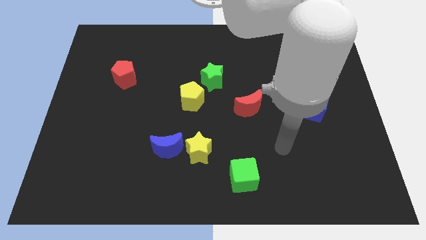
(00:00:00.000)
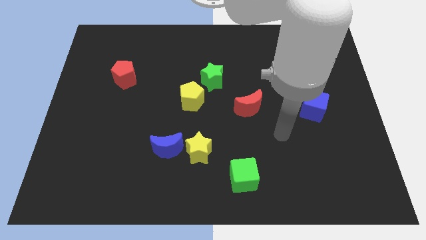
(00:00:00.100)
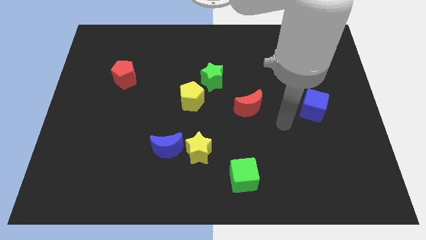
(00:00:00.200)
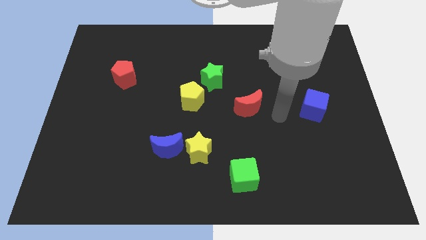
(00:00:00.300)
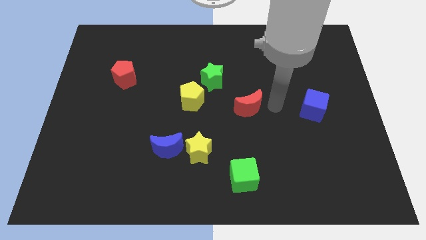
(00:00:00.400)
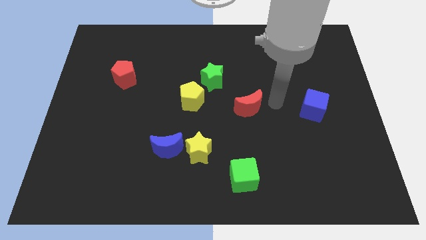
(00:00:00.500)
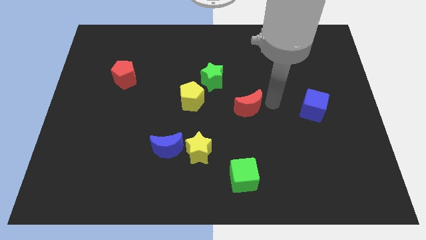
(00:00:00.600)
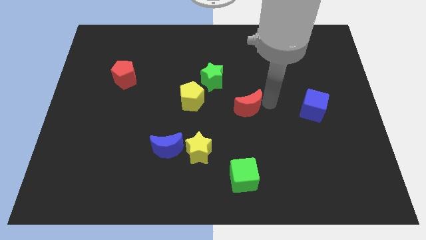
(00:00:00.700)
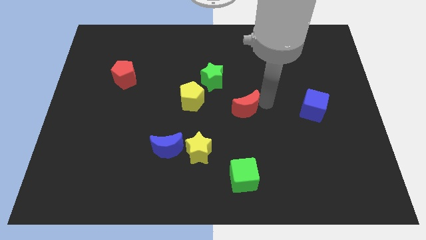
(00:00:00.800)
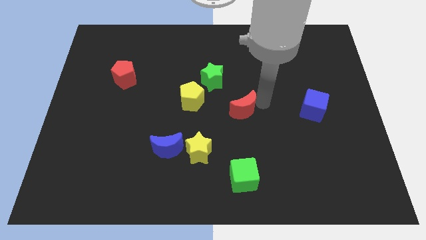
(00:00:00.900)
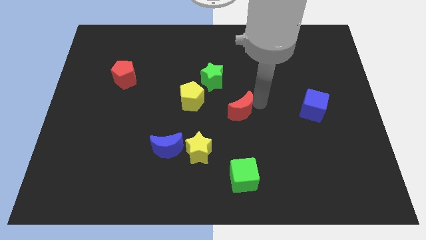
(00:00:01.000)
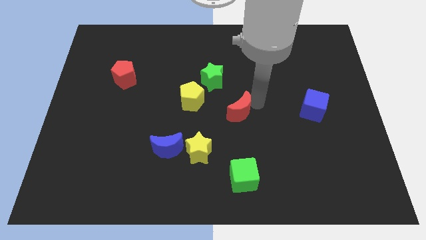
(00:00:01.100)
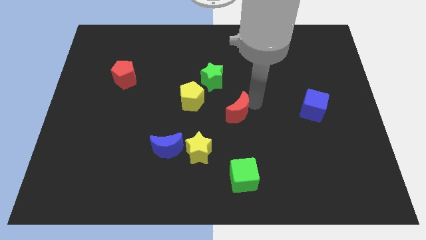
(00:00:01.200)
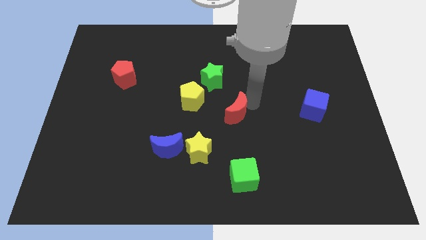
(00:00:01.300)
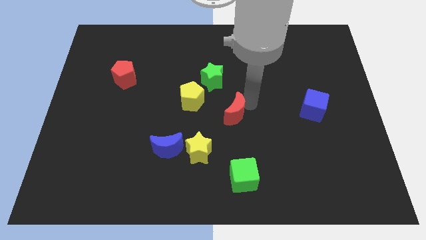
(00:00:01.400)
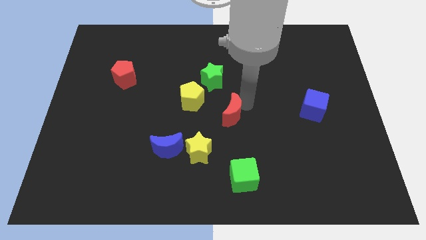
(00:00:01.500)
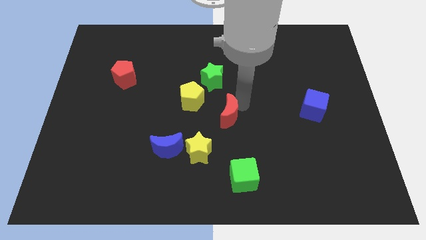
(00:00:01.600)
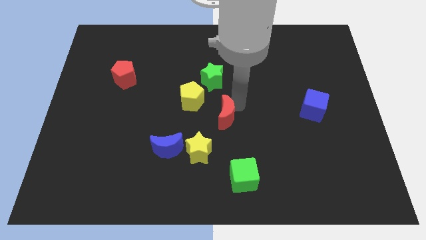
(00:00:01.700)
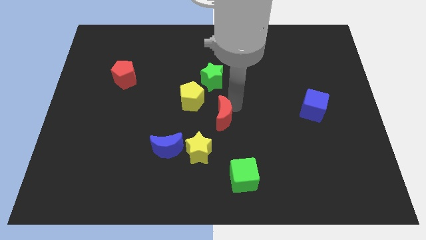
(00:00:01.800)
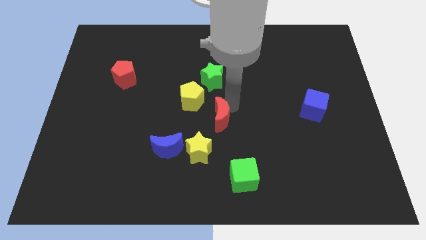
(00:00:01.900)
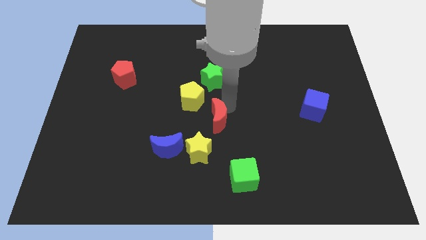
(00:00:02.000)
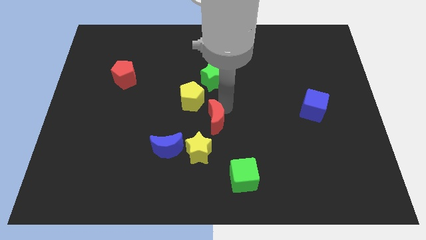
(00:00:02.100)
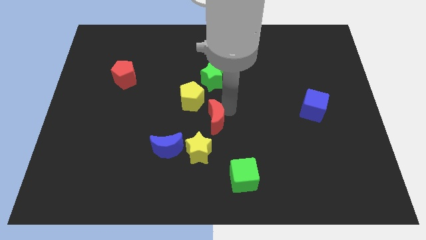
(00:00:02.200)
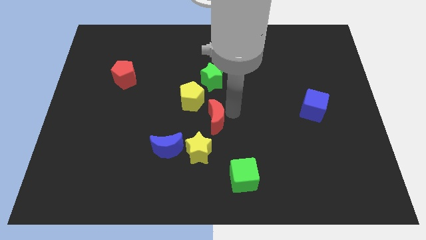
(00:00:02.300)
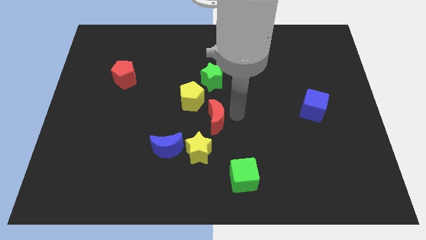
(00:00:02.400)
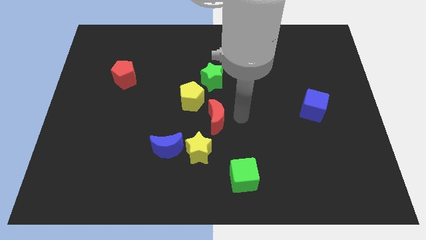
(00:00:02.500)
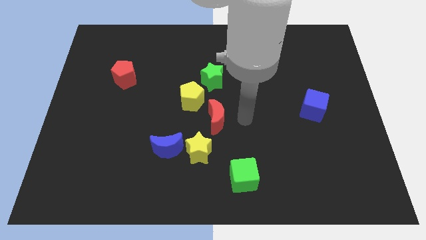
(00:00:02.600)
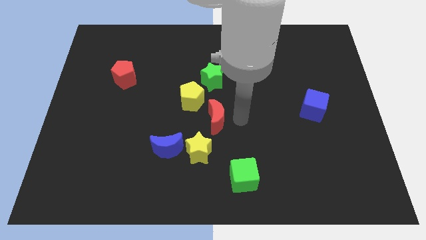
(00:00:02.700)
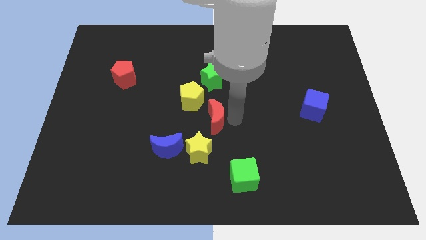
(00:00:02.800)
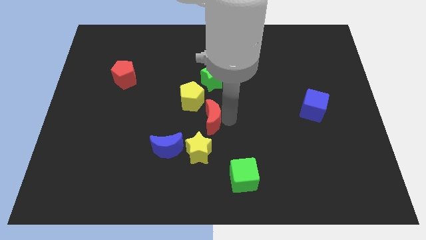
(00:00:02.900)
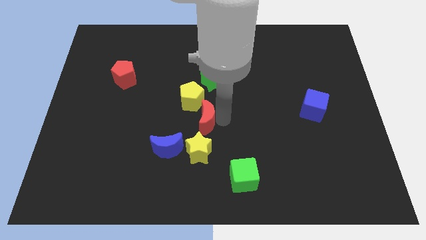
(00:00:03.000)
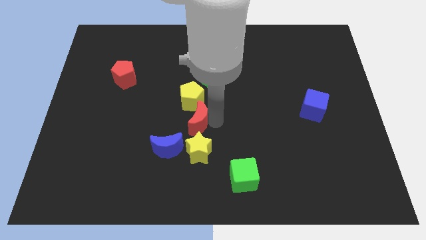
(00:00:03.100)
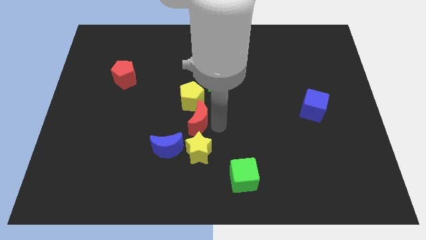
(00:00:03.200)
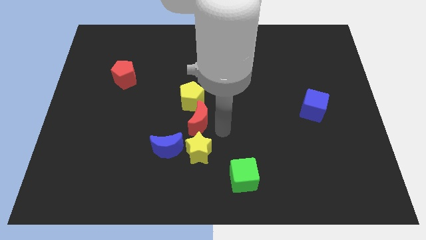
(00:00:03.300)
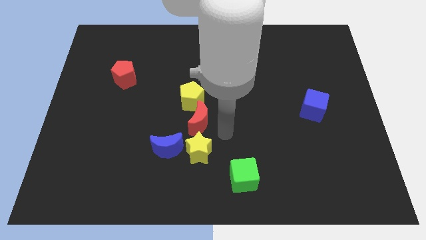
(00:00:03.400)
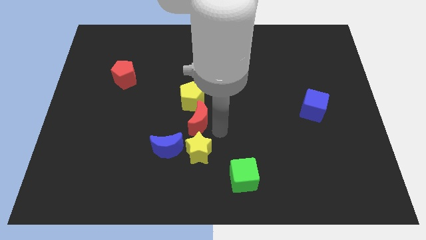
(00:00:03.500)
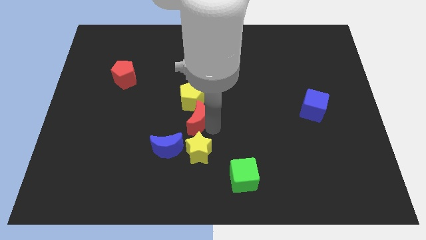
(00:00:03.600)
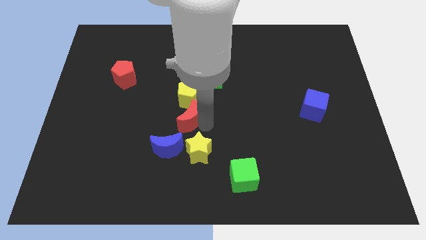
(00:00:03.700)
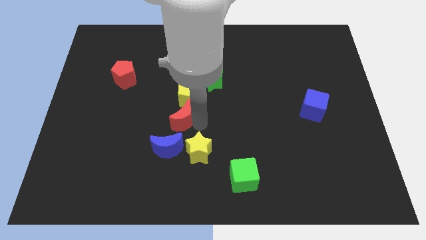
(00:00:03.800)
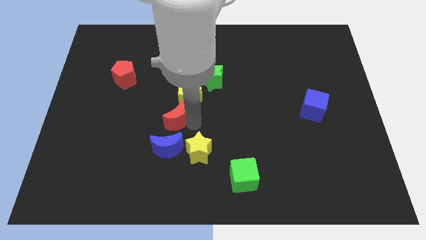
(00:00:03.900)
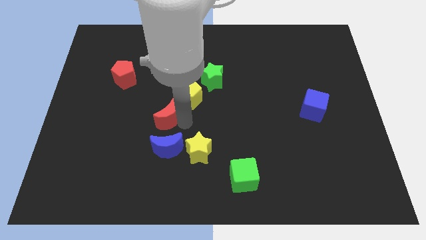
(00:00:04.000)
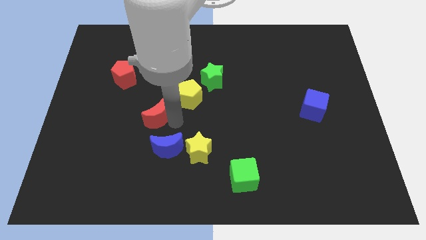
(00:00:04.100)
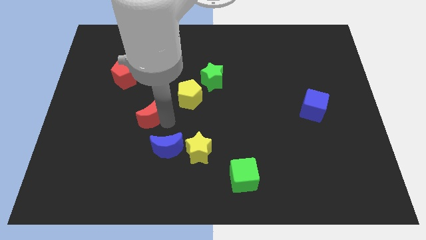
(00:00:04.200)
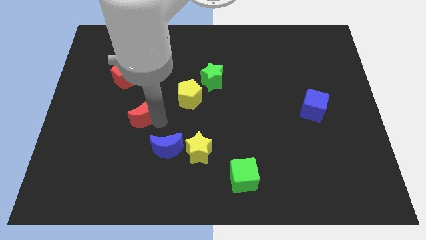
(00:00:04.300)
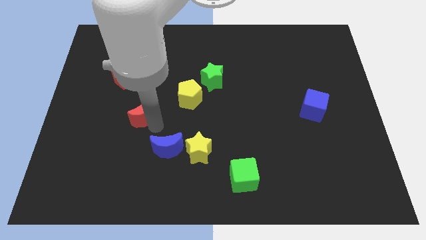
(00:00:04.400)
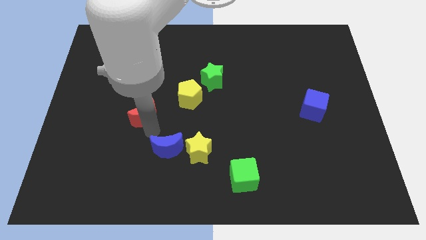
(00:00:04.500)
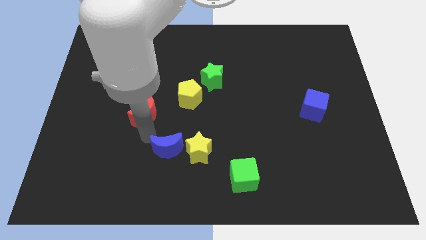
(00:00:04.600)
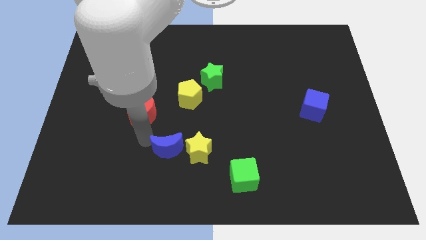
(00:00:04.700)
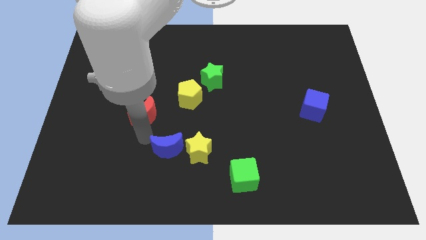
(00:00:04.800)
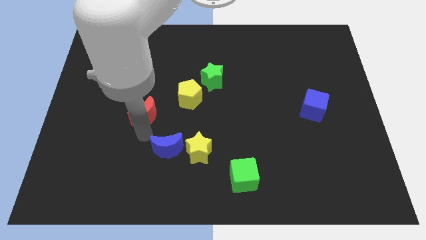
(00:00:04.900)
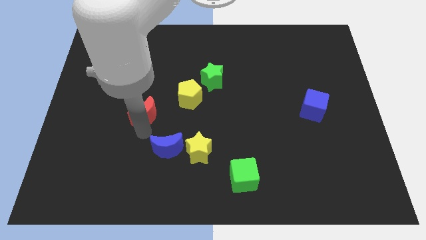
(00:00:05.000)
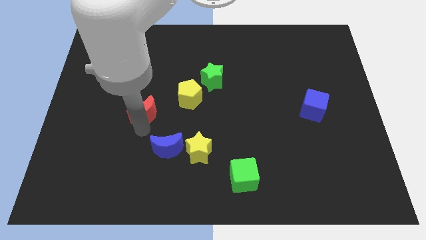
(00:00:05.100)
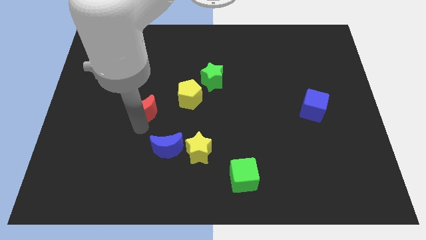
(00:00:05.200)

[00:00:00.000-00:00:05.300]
slide the red moon just left of the yellow pentagon

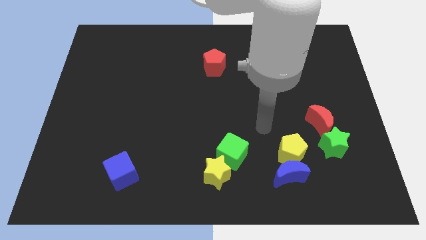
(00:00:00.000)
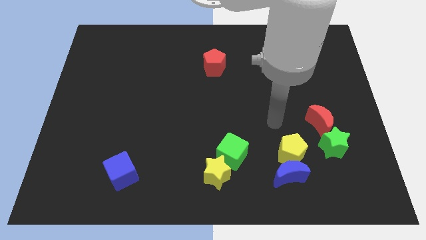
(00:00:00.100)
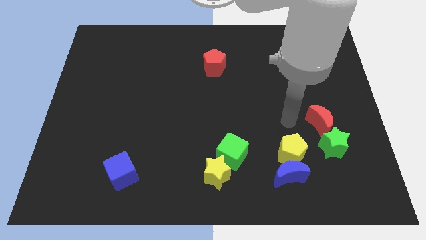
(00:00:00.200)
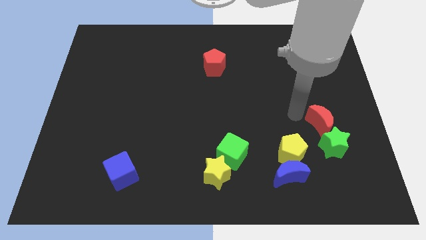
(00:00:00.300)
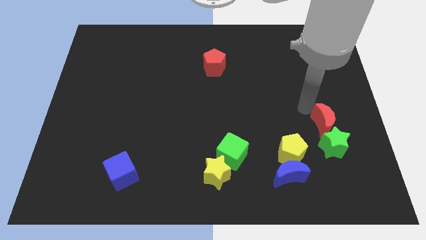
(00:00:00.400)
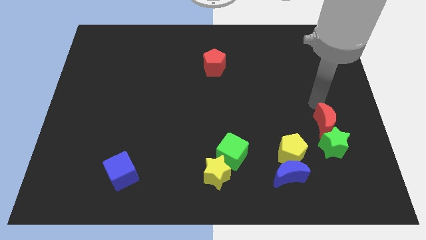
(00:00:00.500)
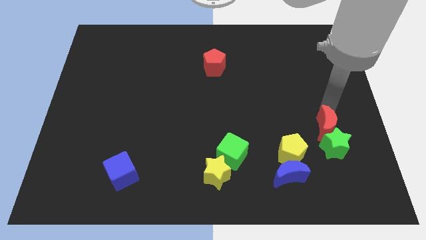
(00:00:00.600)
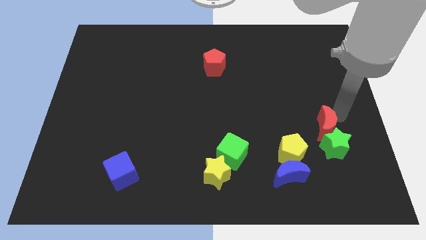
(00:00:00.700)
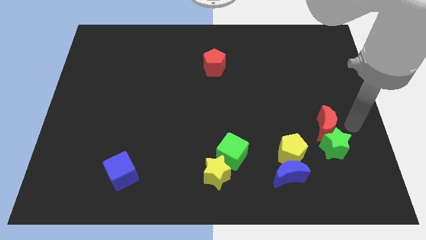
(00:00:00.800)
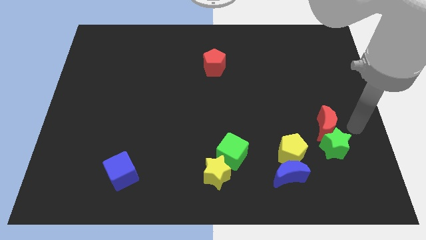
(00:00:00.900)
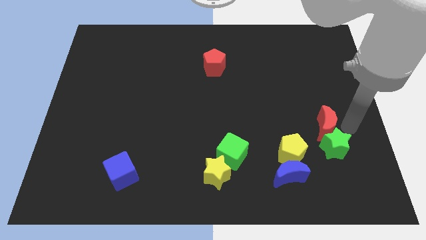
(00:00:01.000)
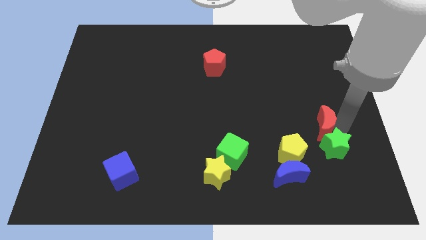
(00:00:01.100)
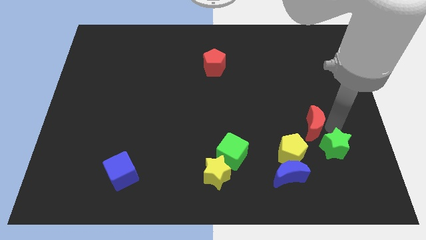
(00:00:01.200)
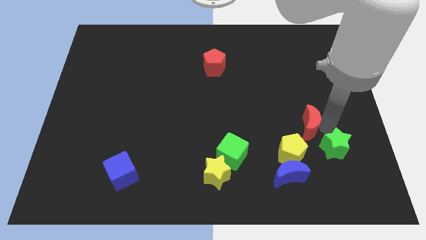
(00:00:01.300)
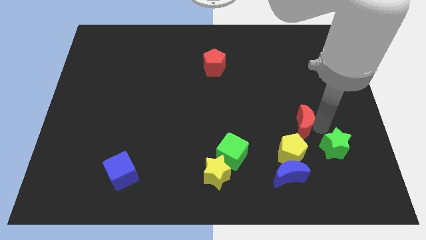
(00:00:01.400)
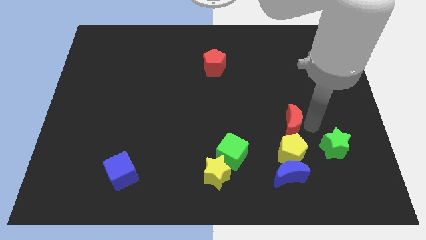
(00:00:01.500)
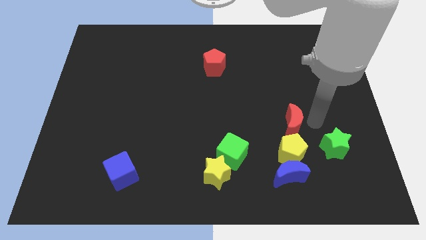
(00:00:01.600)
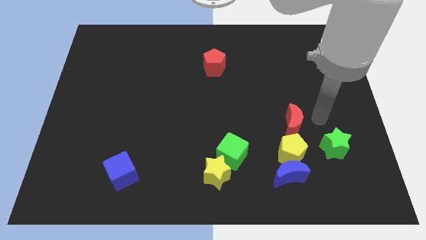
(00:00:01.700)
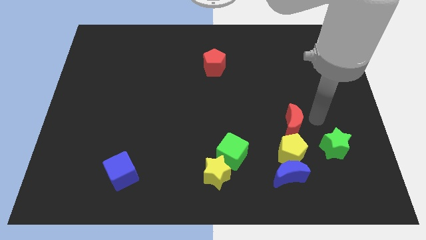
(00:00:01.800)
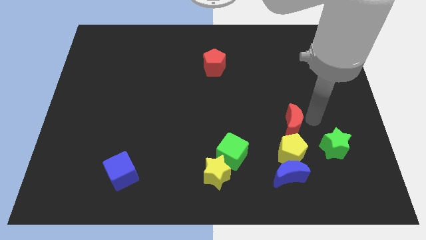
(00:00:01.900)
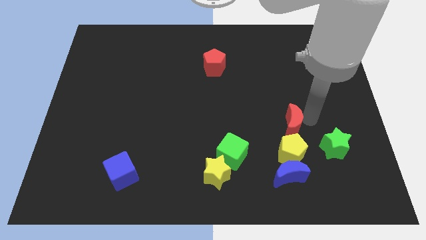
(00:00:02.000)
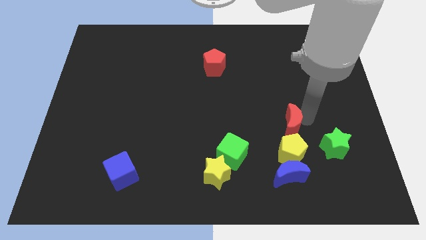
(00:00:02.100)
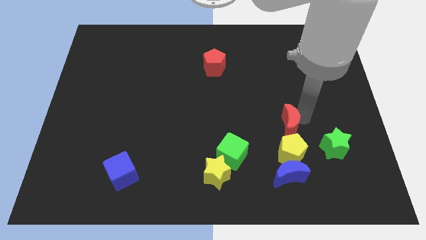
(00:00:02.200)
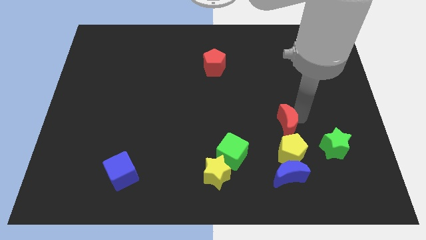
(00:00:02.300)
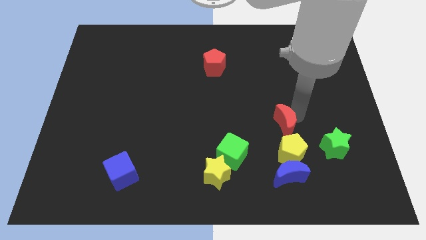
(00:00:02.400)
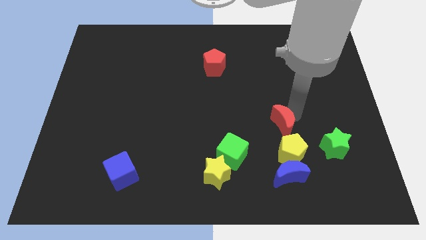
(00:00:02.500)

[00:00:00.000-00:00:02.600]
slide the red moon to the top left side of the yellow pentagon
